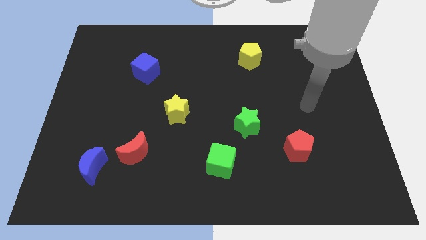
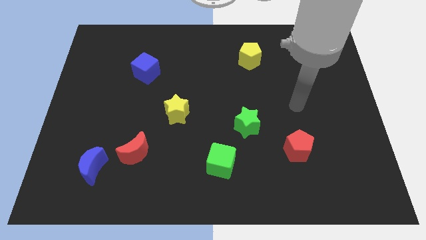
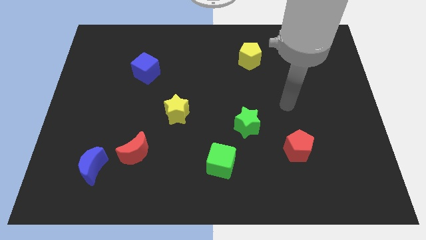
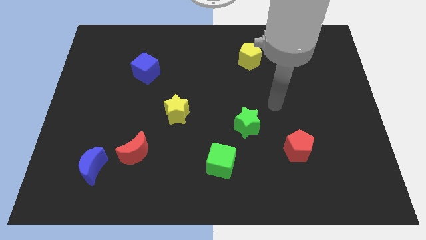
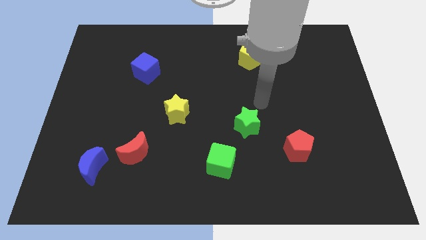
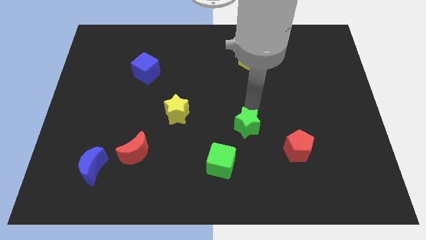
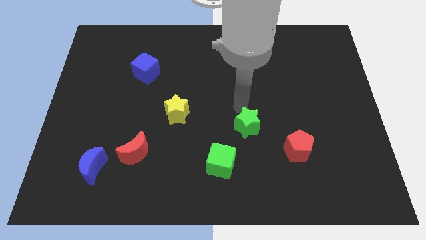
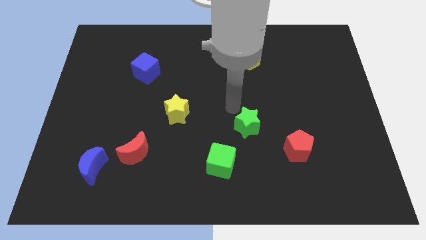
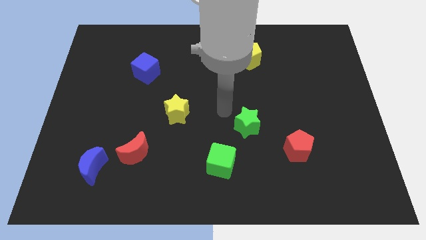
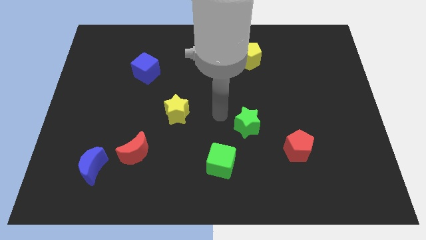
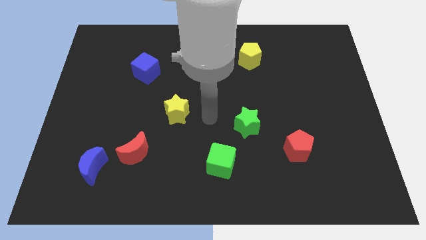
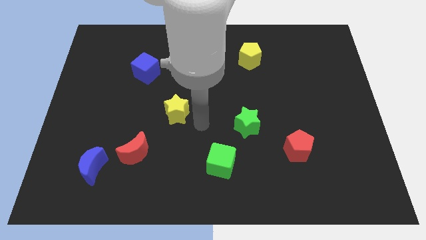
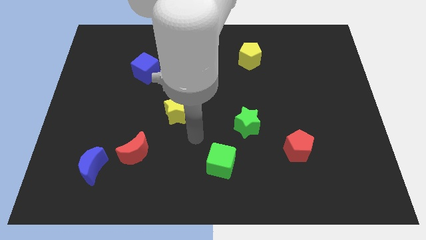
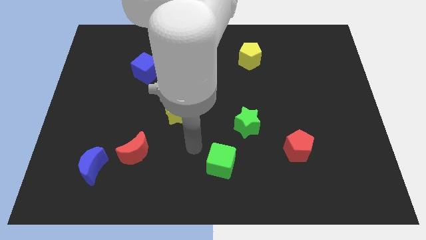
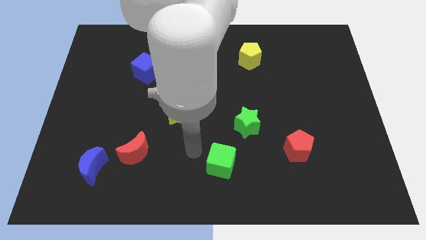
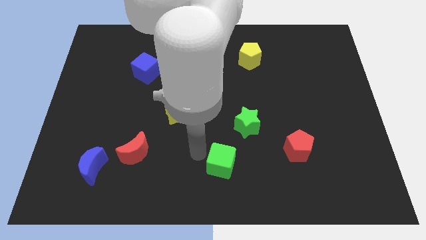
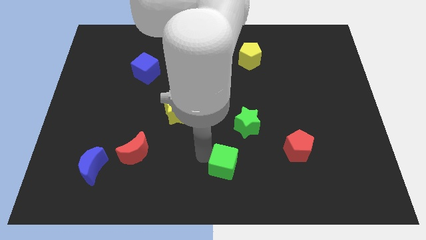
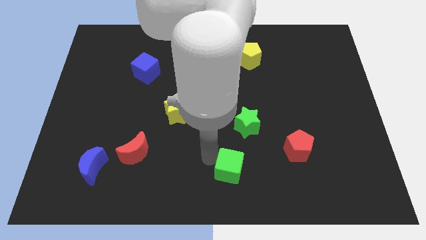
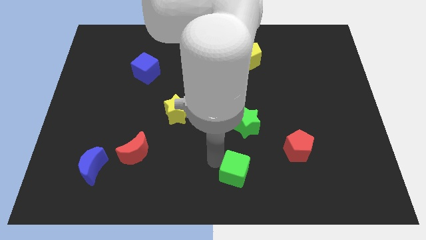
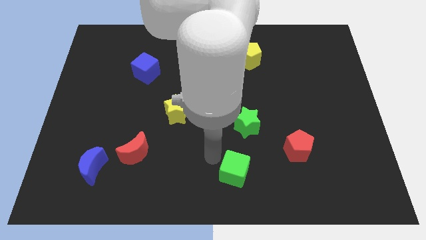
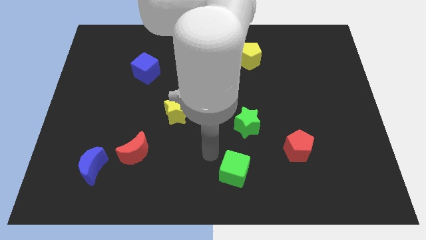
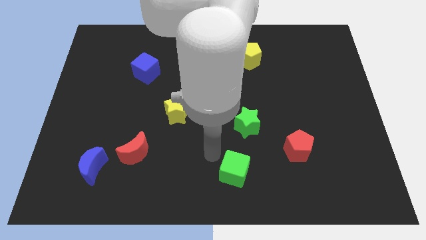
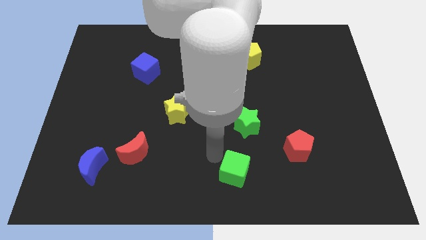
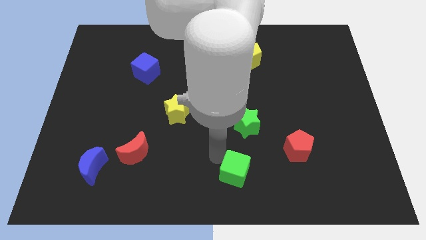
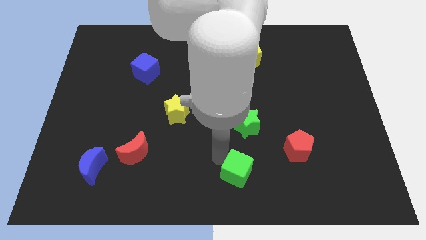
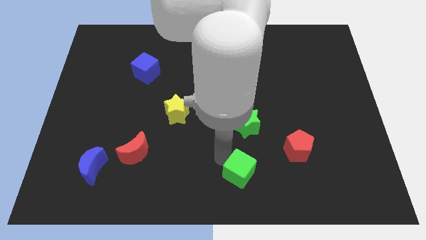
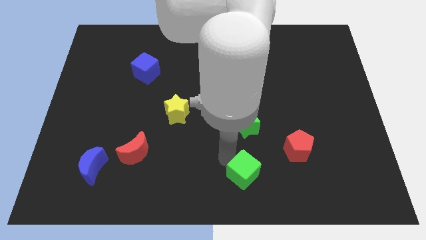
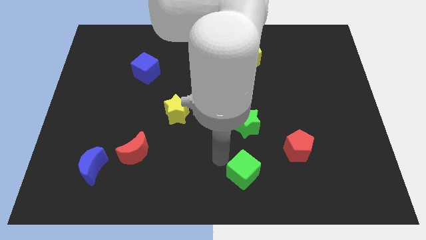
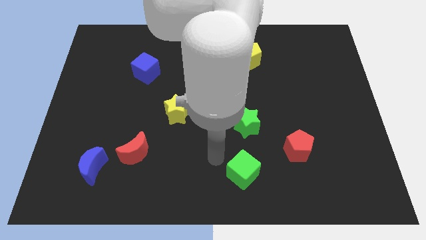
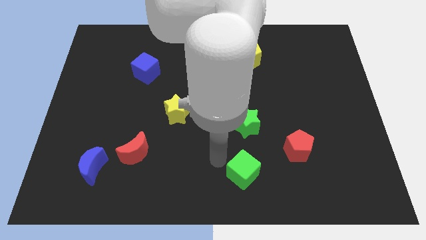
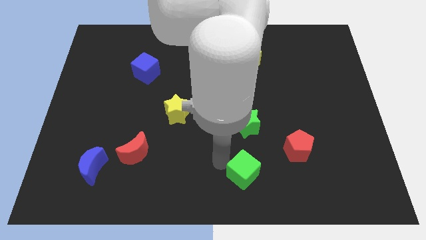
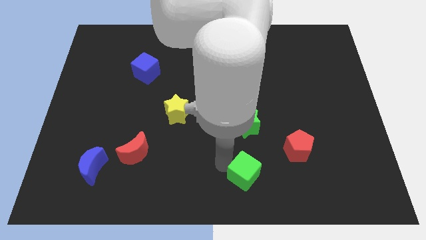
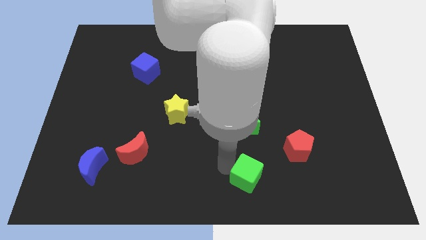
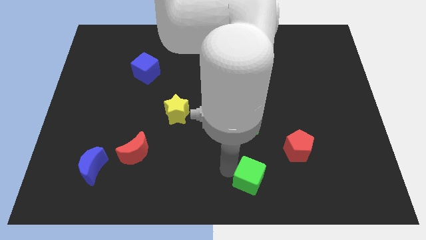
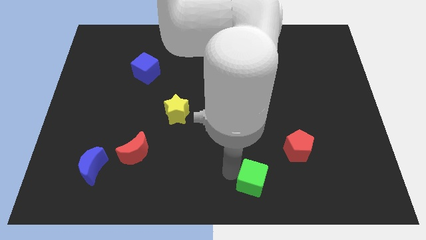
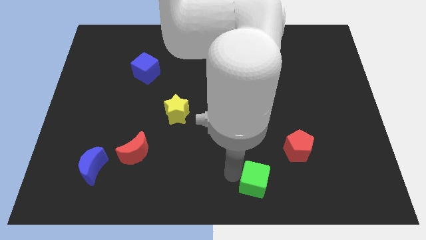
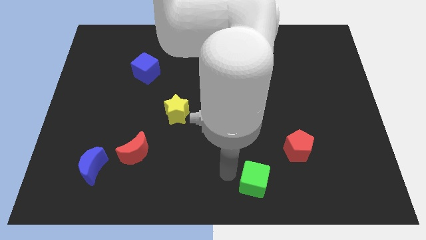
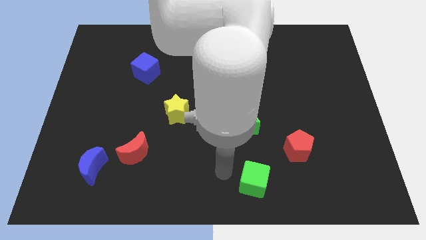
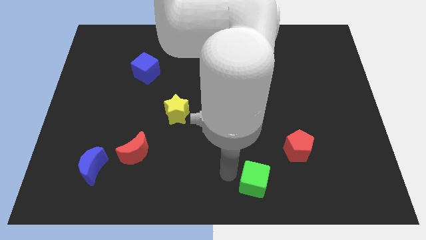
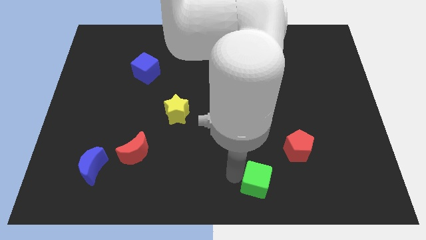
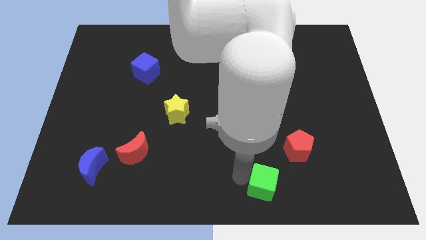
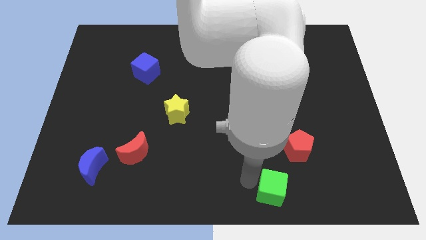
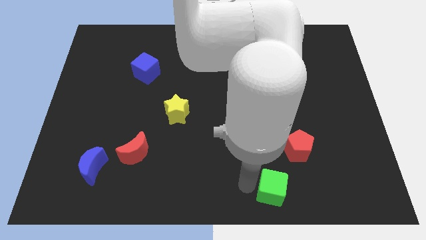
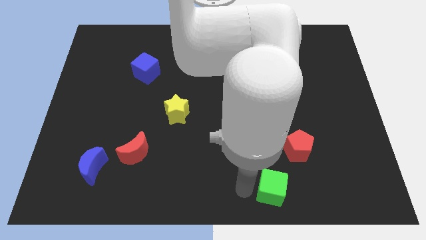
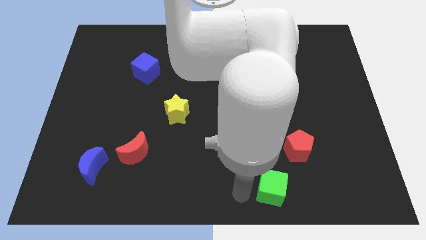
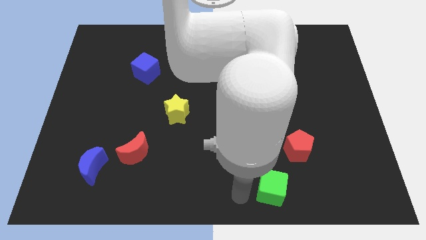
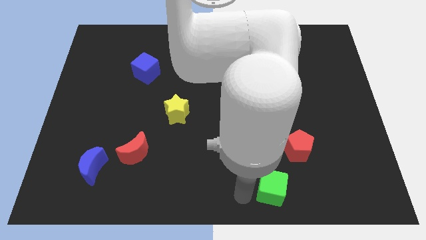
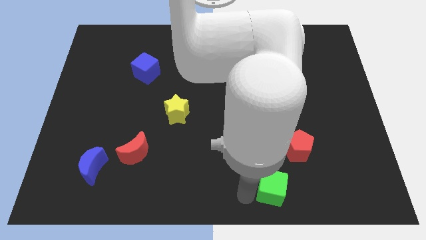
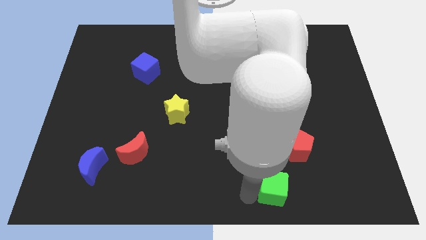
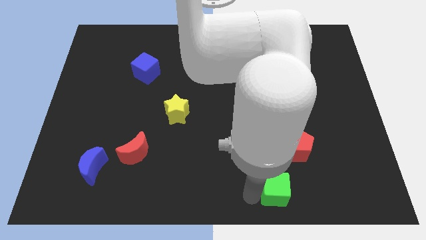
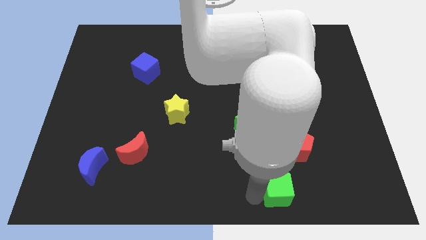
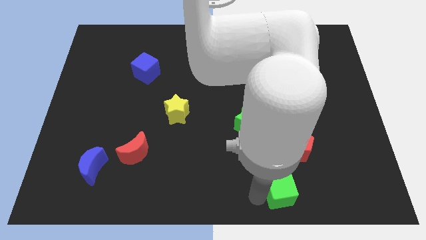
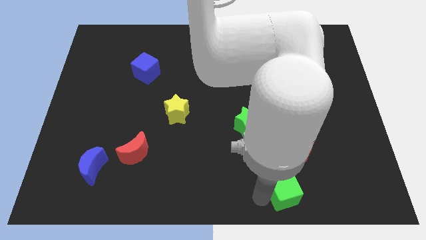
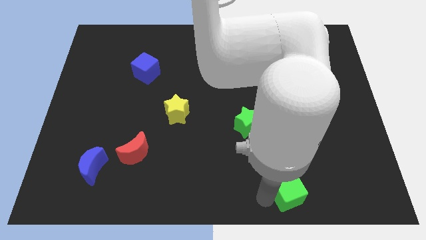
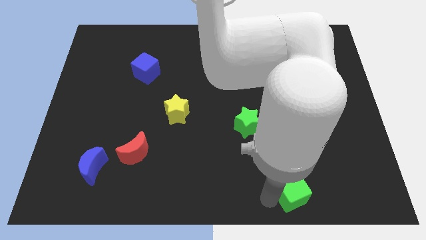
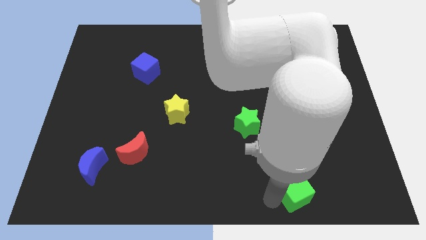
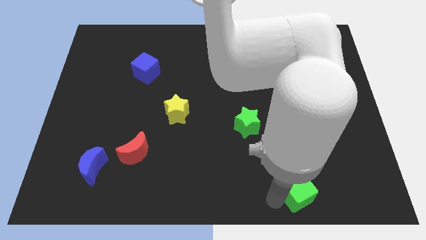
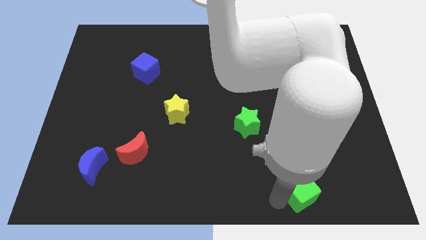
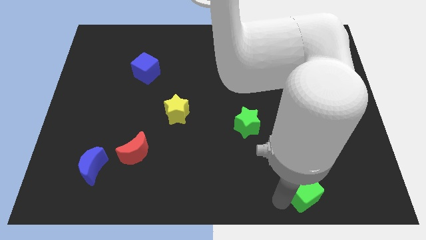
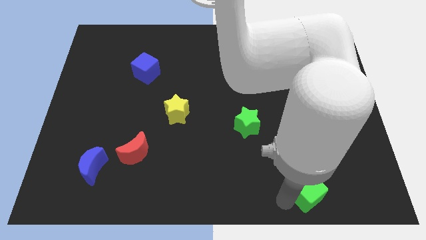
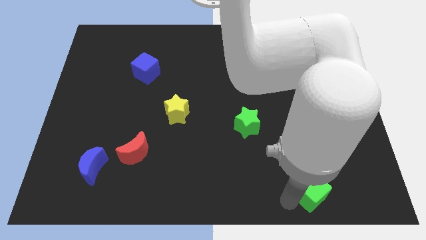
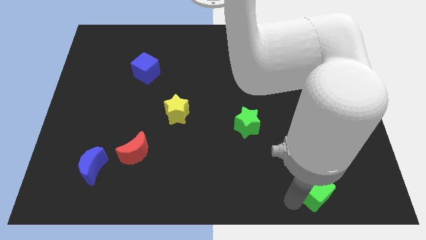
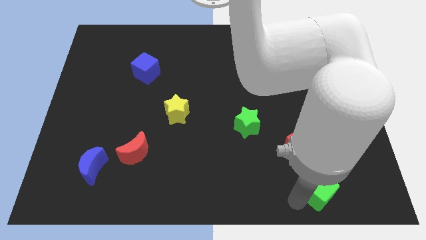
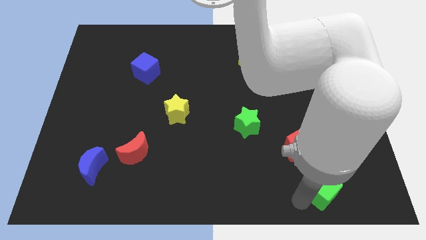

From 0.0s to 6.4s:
push the green cube diagonally down and to the right of the red pentagon

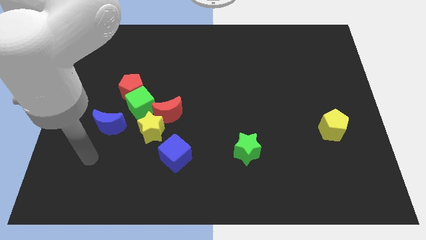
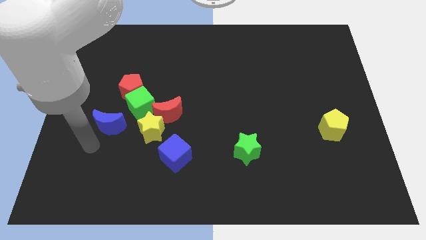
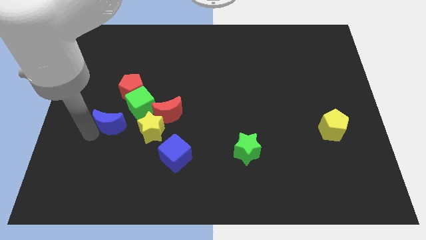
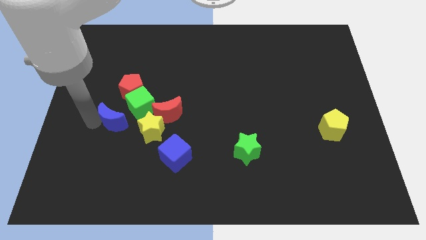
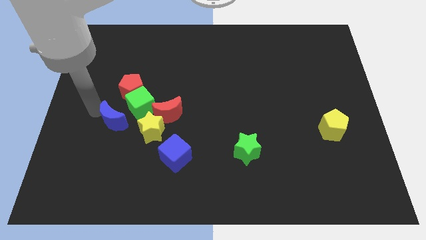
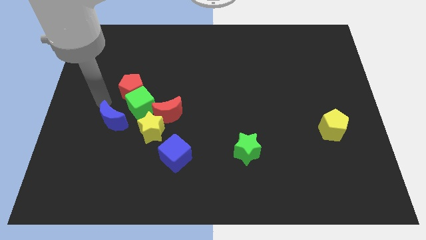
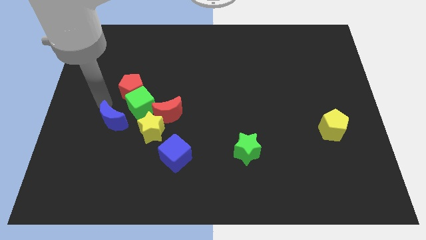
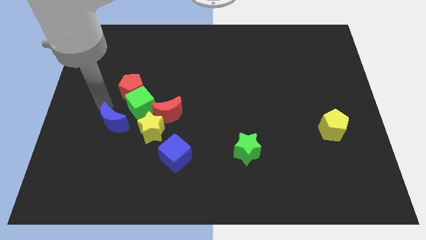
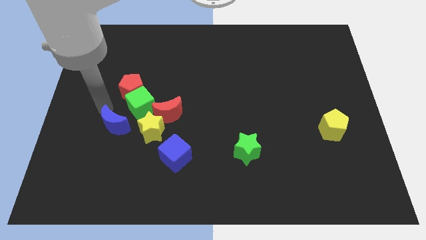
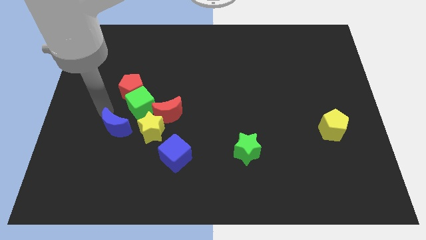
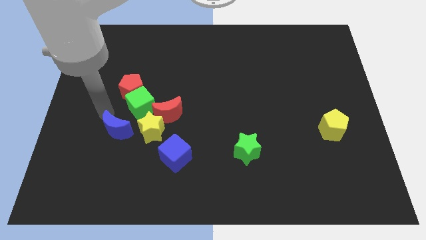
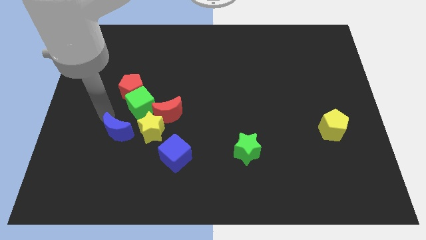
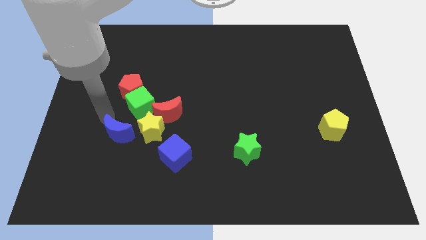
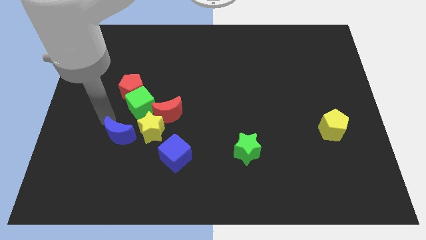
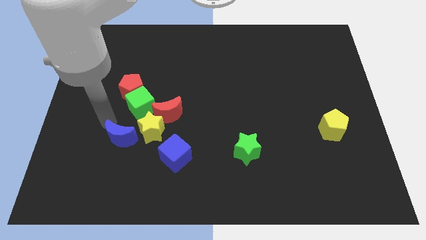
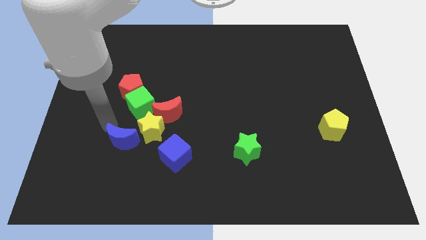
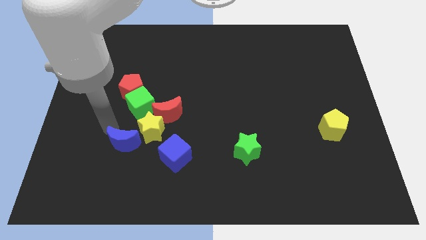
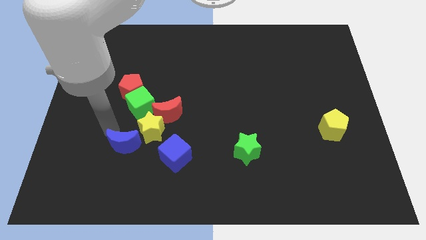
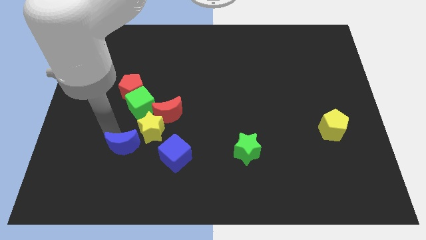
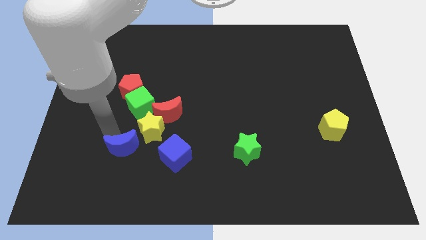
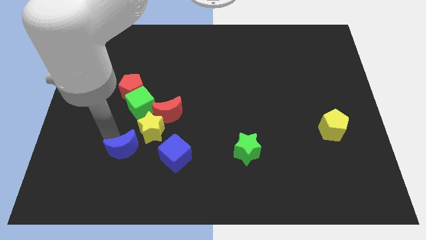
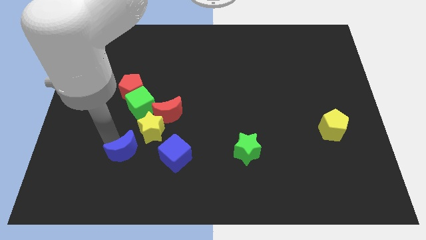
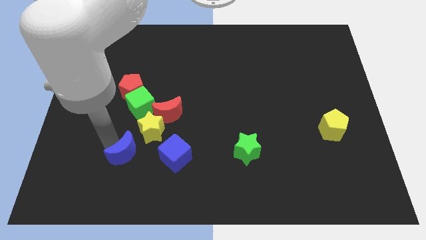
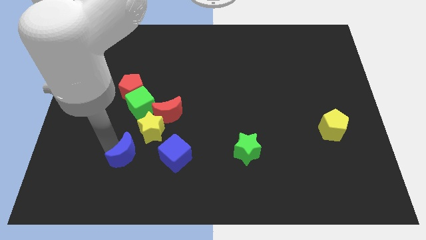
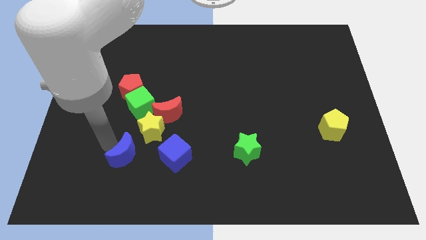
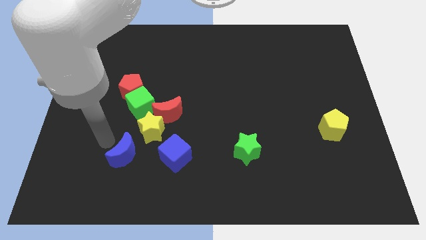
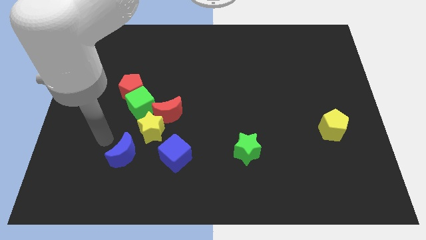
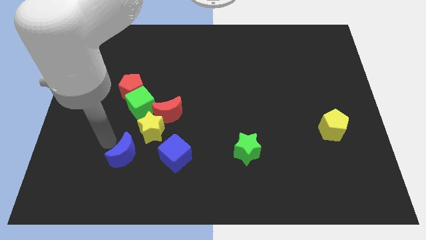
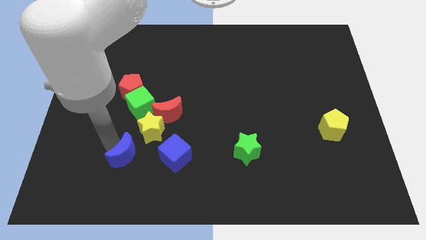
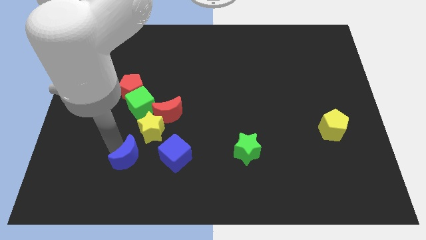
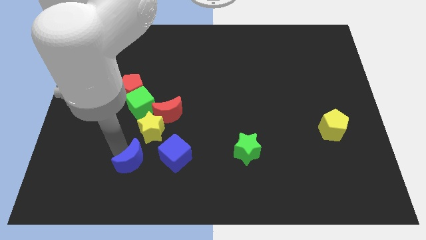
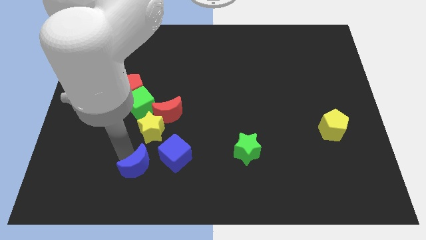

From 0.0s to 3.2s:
move the blue moon to the bottom left side of the blue cube
